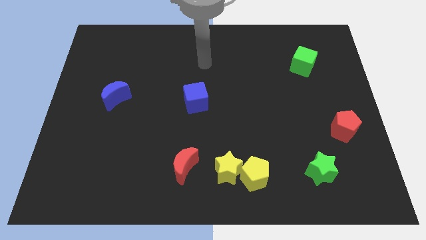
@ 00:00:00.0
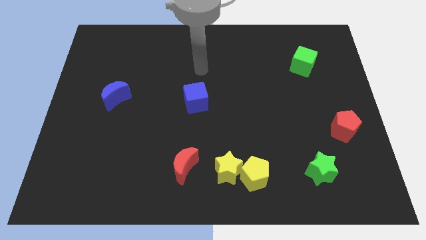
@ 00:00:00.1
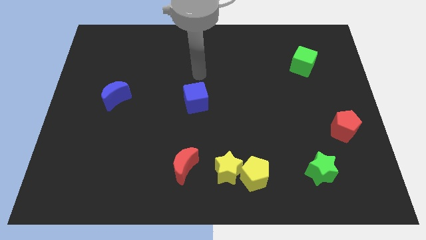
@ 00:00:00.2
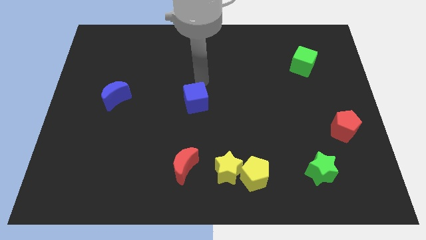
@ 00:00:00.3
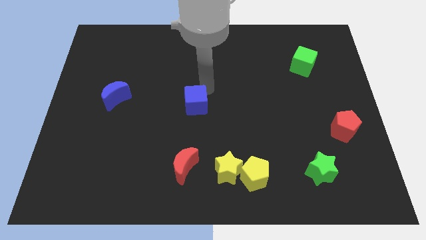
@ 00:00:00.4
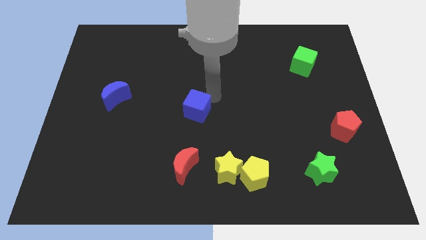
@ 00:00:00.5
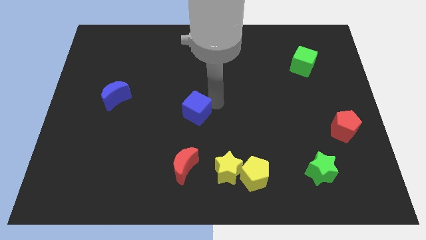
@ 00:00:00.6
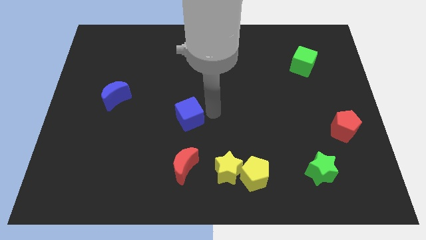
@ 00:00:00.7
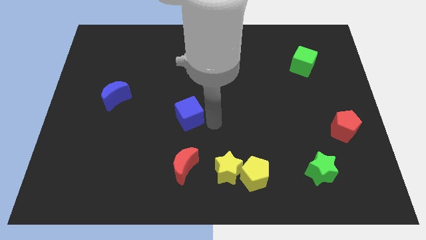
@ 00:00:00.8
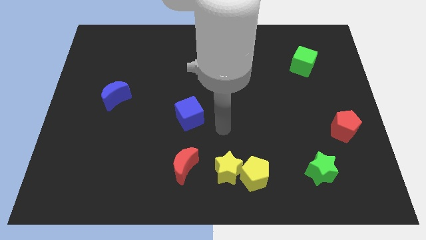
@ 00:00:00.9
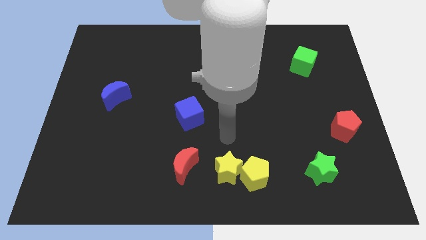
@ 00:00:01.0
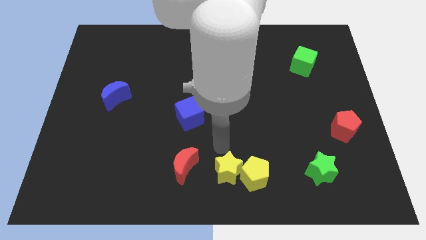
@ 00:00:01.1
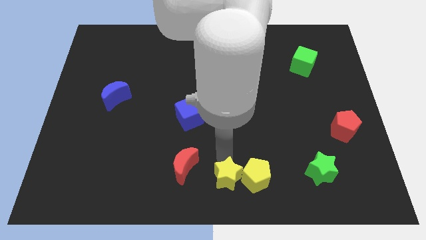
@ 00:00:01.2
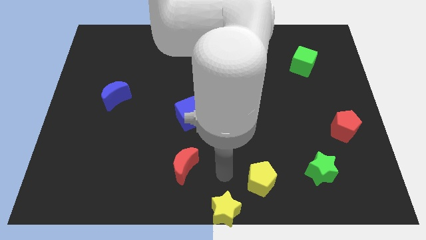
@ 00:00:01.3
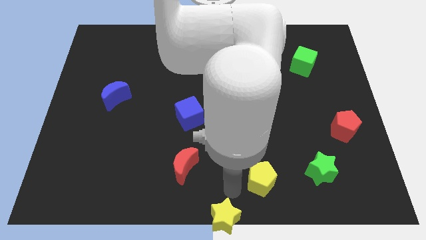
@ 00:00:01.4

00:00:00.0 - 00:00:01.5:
move the yellow pentagon away from the yellow star

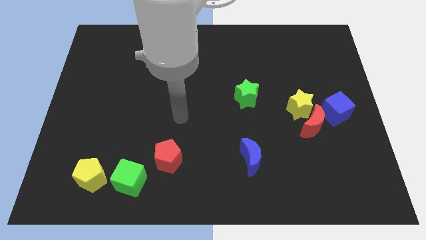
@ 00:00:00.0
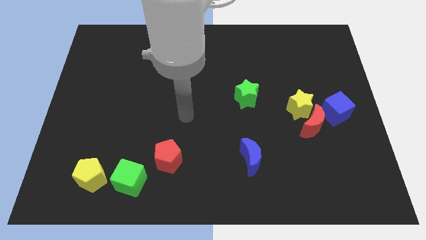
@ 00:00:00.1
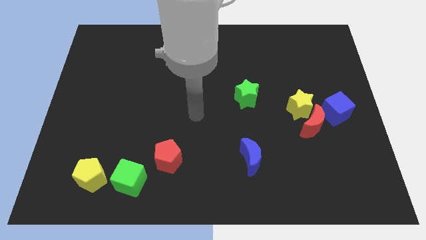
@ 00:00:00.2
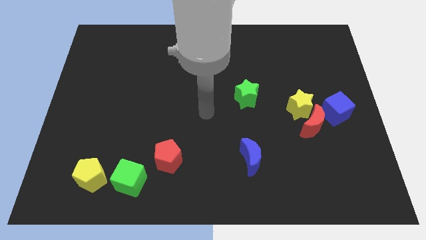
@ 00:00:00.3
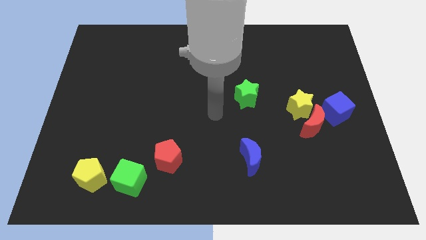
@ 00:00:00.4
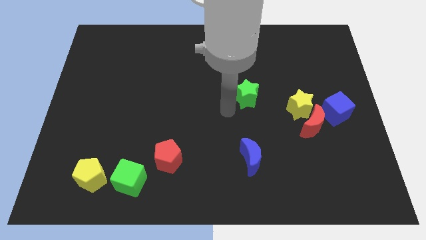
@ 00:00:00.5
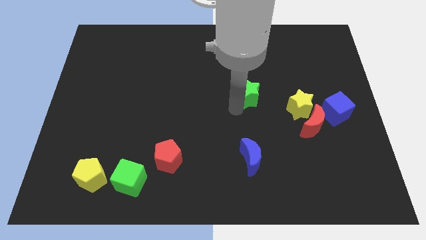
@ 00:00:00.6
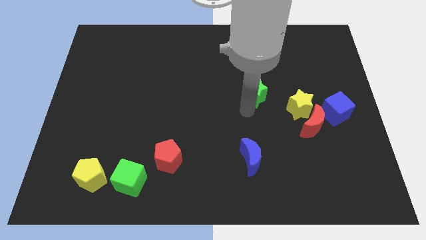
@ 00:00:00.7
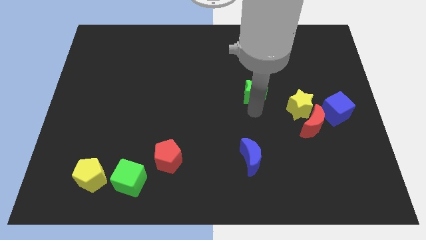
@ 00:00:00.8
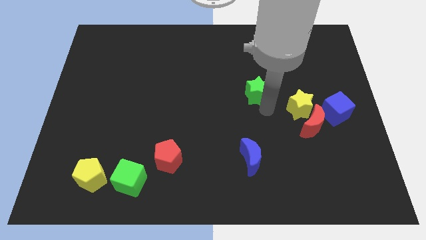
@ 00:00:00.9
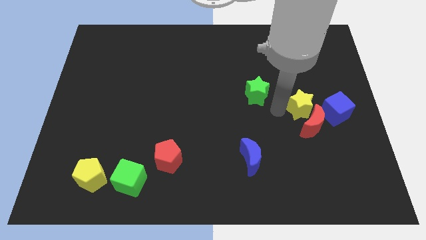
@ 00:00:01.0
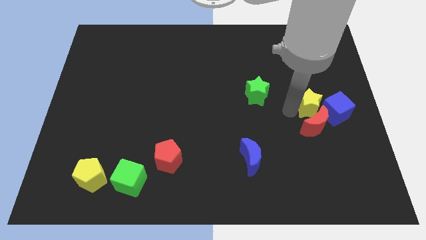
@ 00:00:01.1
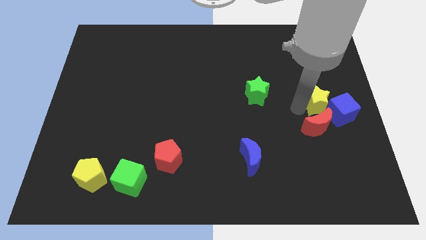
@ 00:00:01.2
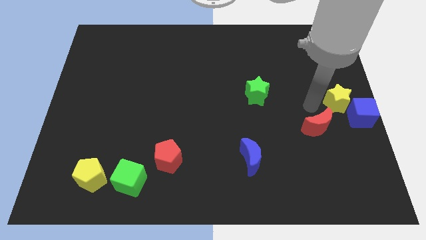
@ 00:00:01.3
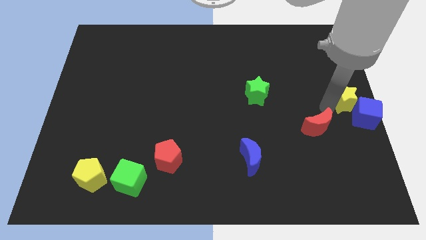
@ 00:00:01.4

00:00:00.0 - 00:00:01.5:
pull the red moon apart from the yellow star and blue cube

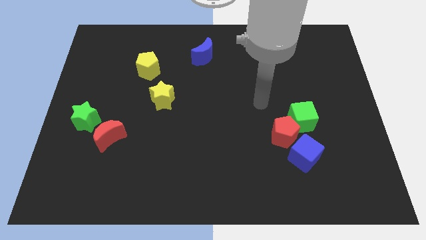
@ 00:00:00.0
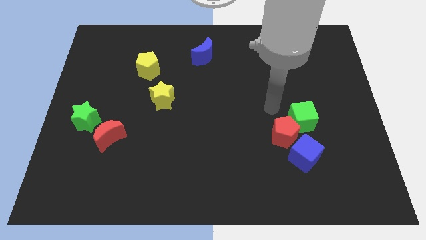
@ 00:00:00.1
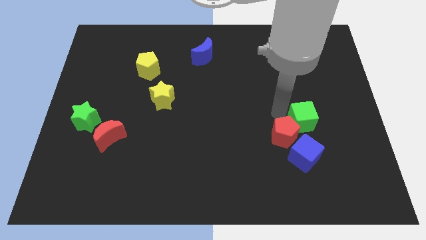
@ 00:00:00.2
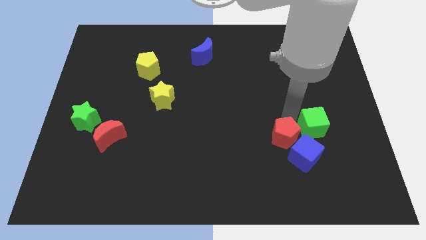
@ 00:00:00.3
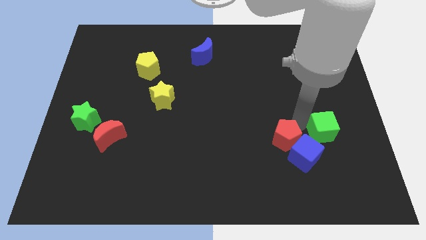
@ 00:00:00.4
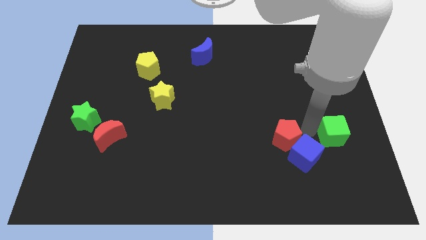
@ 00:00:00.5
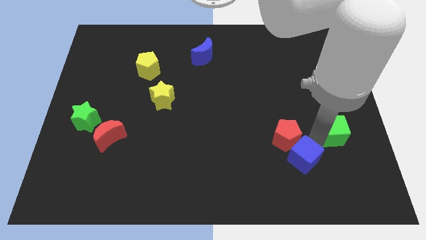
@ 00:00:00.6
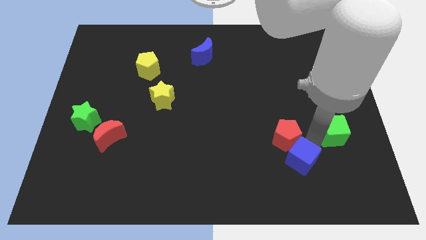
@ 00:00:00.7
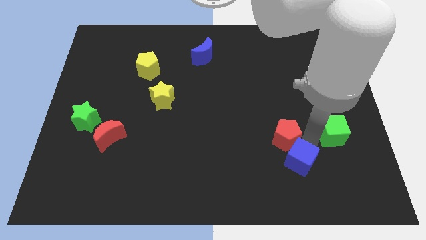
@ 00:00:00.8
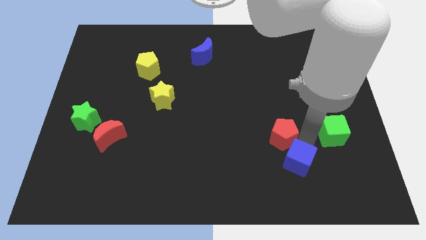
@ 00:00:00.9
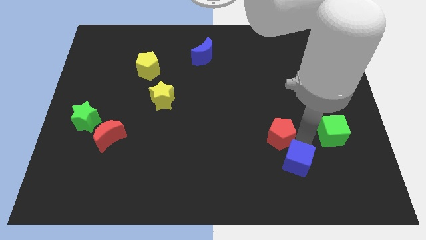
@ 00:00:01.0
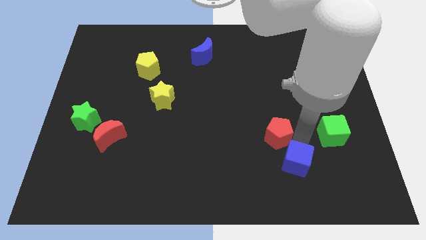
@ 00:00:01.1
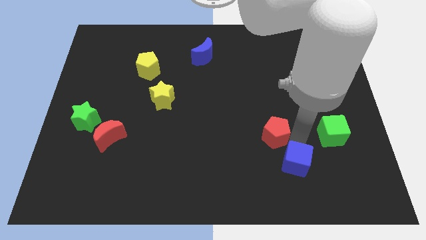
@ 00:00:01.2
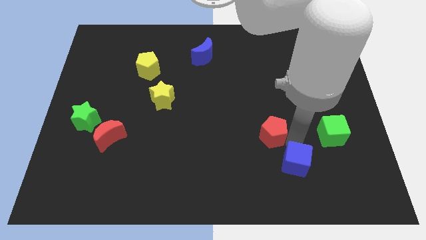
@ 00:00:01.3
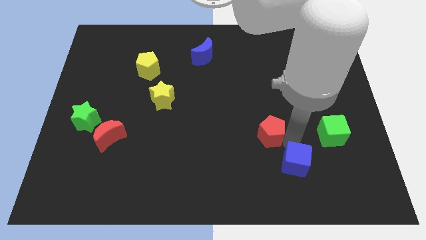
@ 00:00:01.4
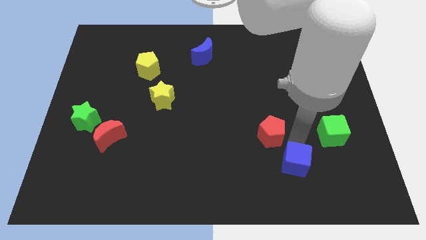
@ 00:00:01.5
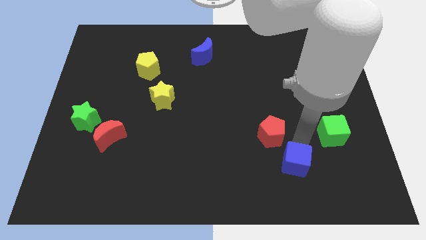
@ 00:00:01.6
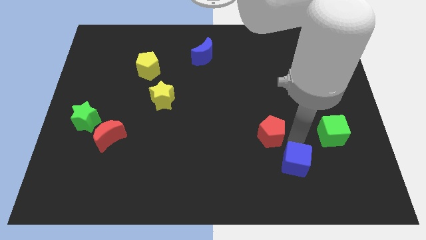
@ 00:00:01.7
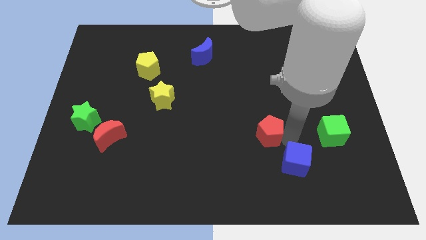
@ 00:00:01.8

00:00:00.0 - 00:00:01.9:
move the red pentagon away from the green cube and blue cube

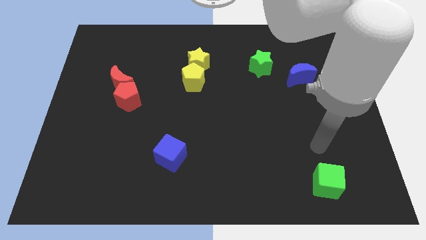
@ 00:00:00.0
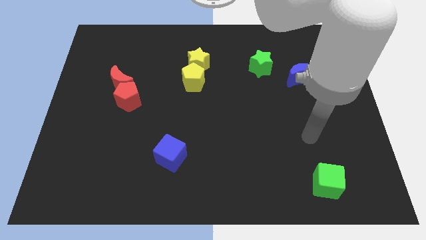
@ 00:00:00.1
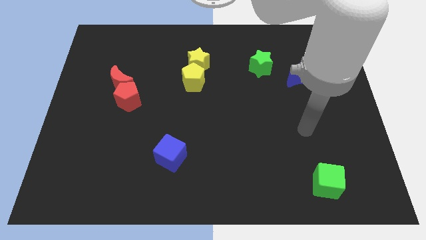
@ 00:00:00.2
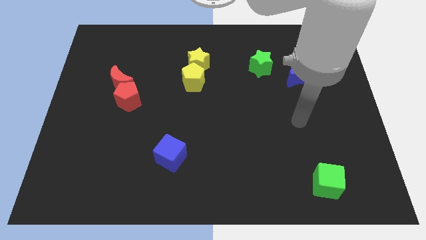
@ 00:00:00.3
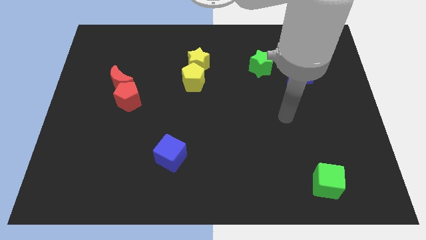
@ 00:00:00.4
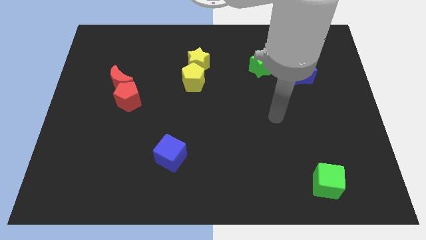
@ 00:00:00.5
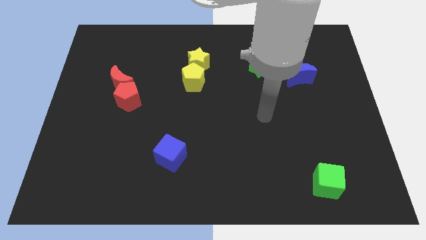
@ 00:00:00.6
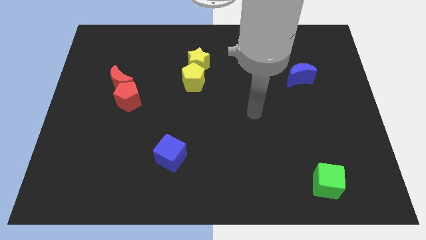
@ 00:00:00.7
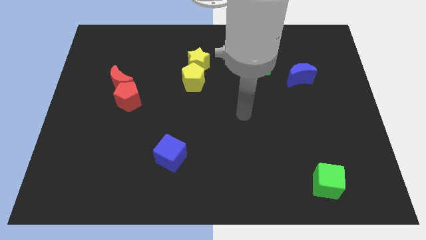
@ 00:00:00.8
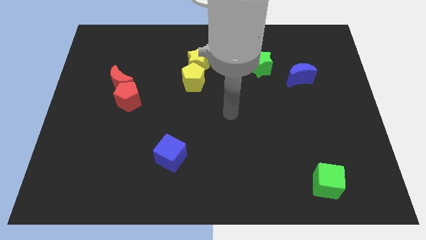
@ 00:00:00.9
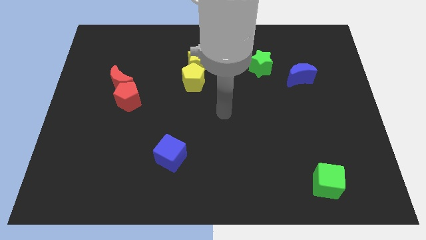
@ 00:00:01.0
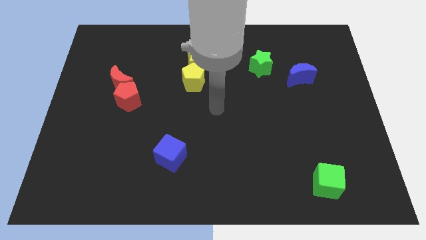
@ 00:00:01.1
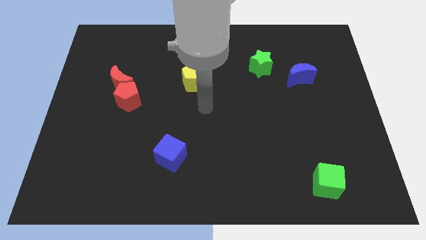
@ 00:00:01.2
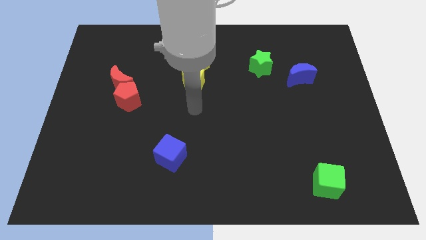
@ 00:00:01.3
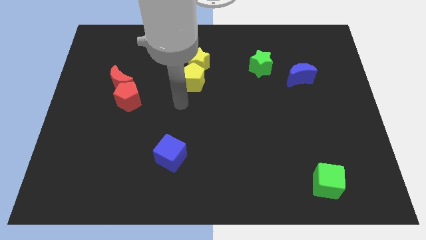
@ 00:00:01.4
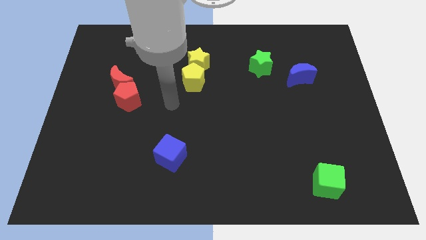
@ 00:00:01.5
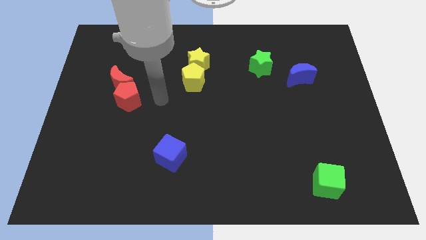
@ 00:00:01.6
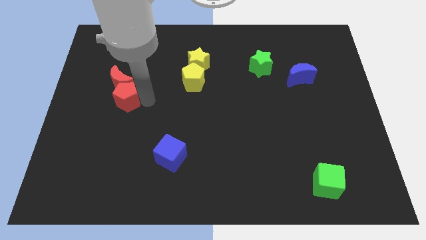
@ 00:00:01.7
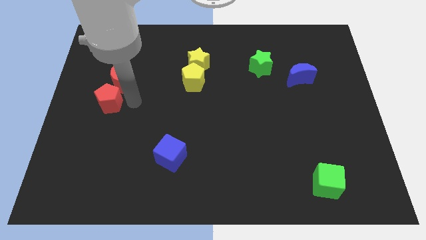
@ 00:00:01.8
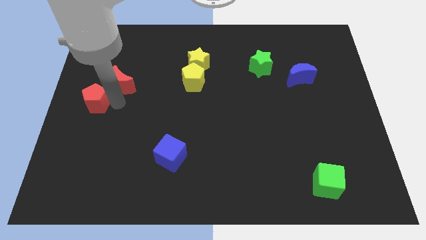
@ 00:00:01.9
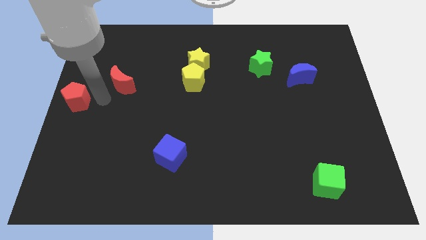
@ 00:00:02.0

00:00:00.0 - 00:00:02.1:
move the red moon away from the red pentagon

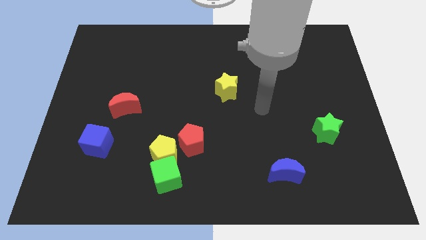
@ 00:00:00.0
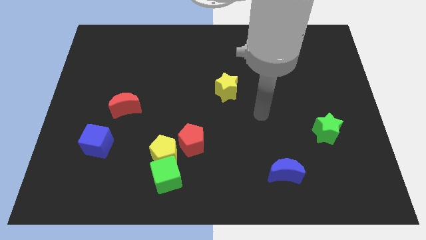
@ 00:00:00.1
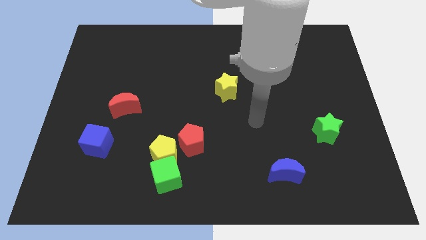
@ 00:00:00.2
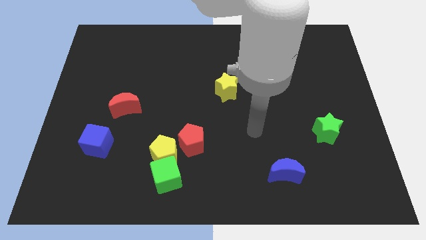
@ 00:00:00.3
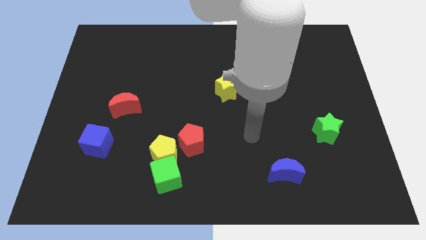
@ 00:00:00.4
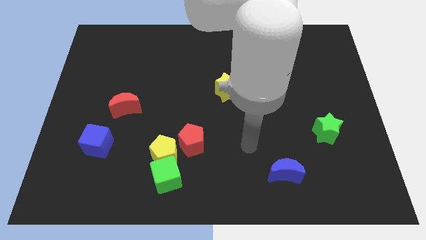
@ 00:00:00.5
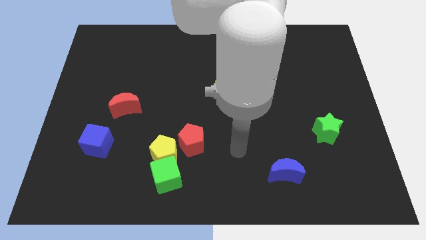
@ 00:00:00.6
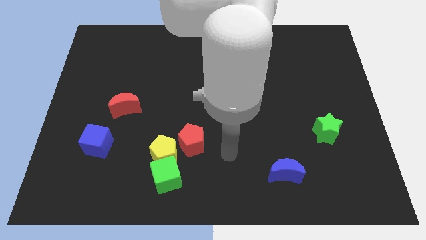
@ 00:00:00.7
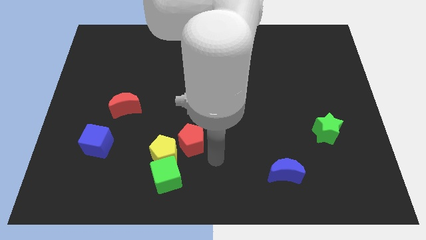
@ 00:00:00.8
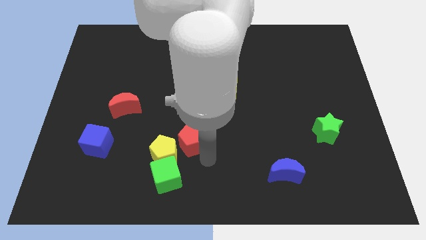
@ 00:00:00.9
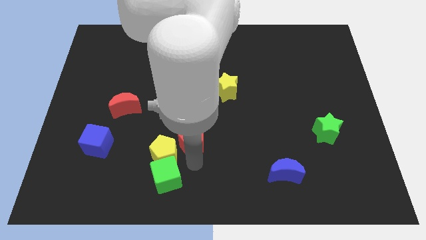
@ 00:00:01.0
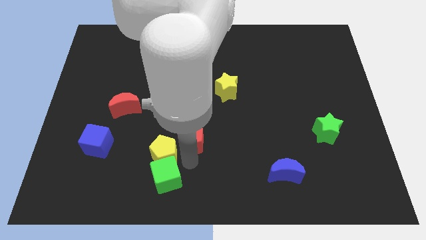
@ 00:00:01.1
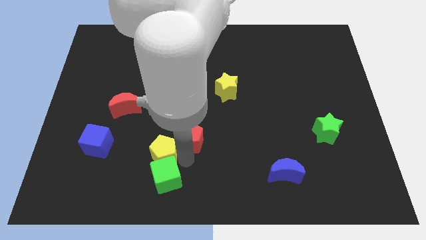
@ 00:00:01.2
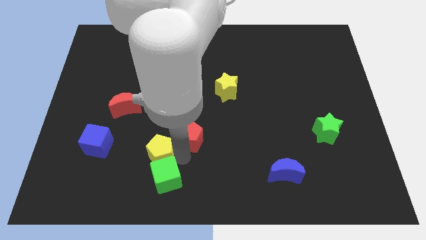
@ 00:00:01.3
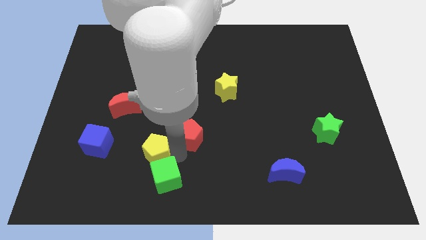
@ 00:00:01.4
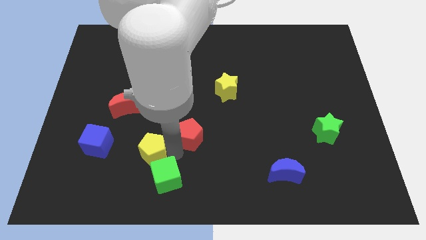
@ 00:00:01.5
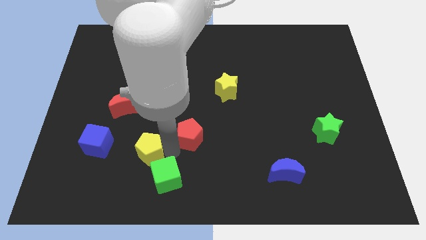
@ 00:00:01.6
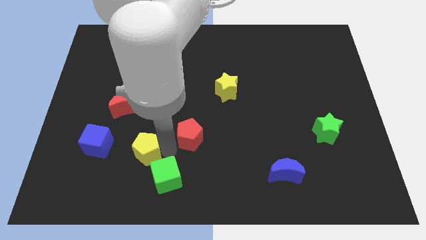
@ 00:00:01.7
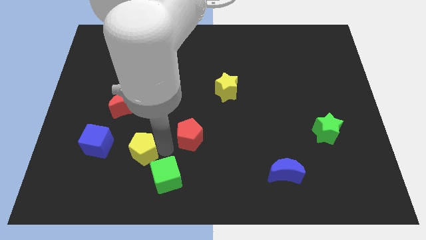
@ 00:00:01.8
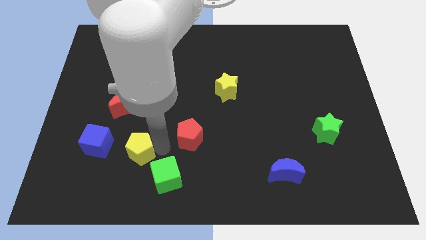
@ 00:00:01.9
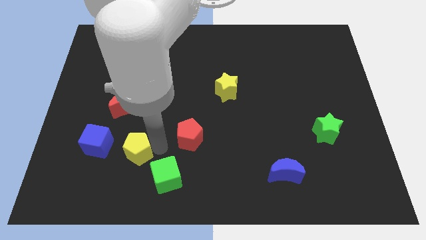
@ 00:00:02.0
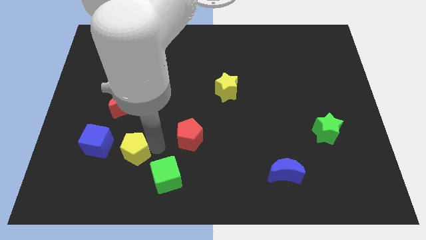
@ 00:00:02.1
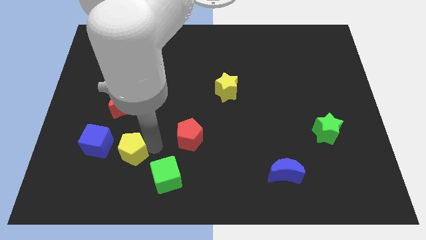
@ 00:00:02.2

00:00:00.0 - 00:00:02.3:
separate the yellow pentagon from the green cube and red pentagon
